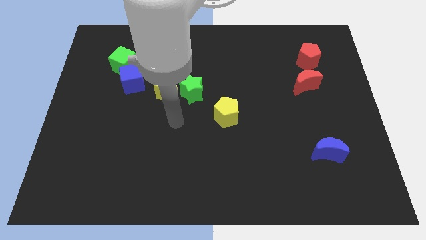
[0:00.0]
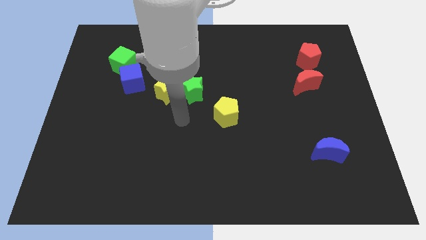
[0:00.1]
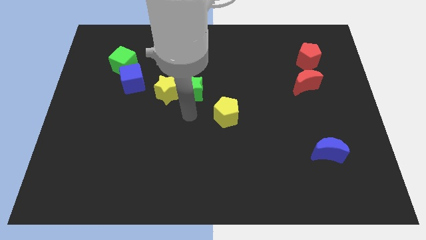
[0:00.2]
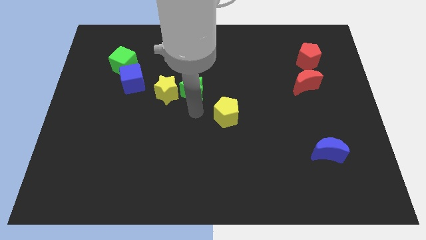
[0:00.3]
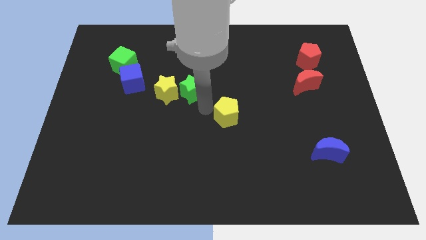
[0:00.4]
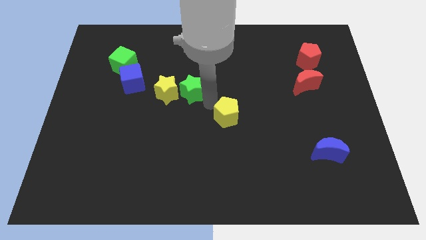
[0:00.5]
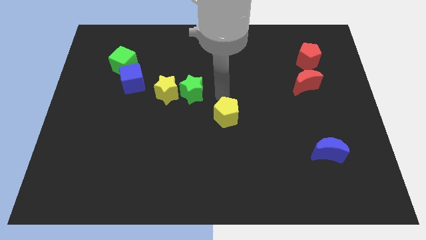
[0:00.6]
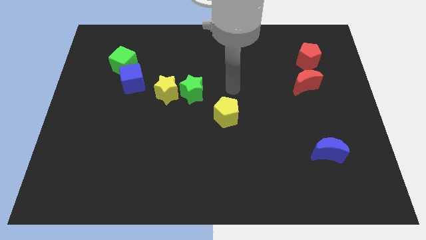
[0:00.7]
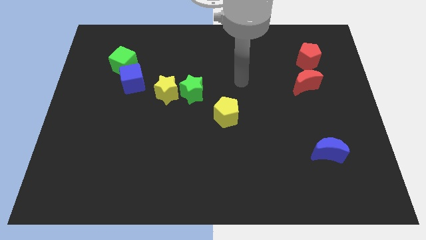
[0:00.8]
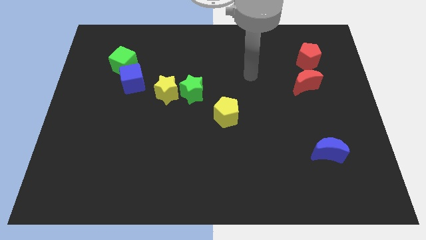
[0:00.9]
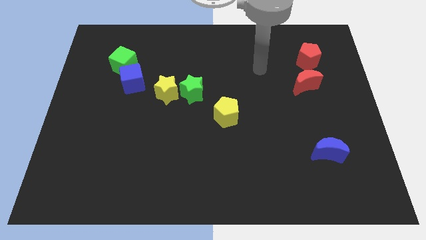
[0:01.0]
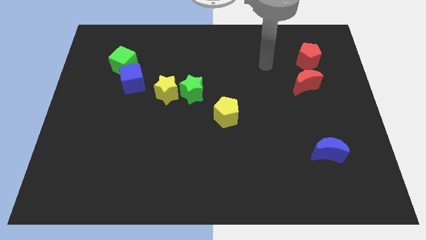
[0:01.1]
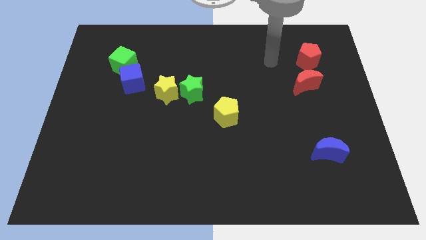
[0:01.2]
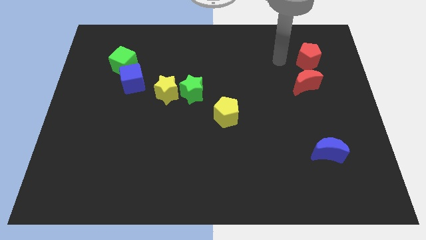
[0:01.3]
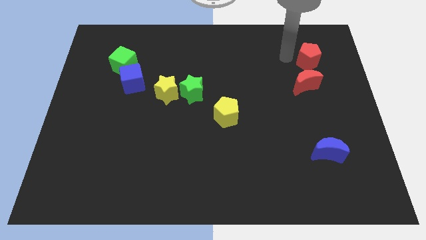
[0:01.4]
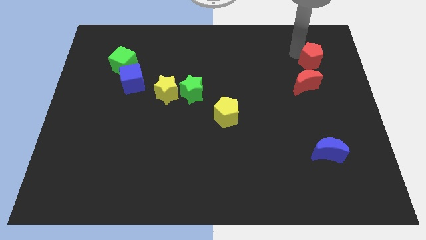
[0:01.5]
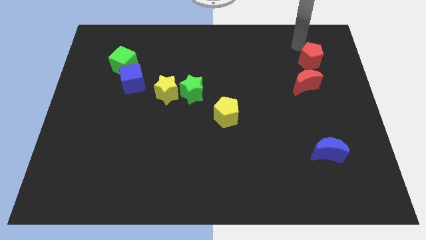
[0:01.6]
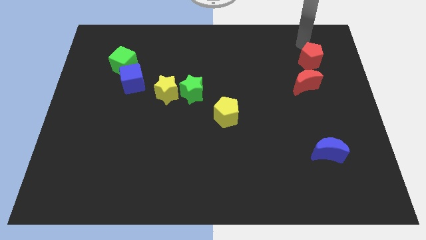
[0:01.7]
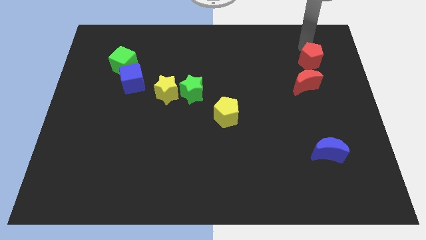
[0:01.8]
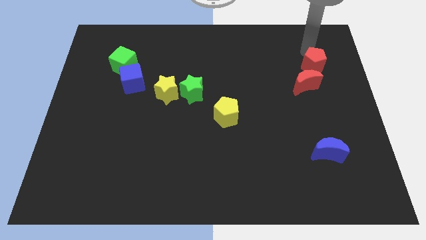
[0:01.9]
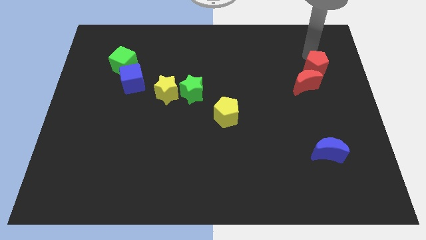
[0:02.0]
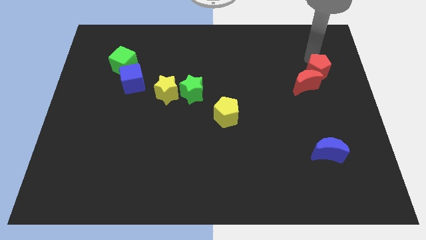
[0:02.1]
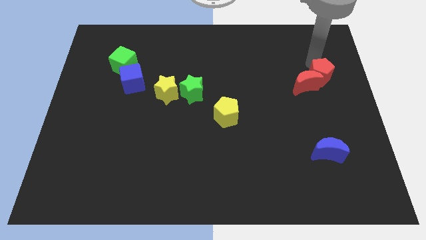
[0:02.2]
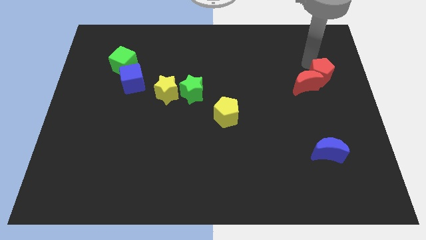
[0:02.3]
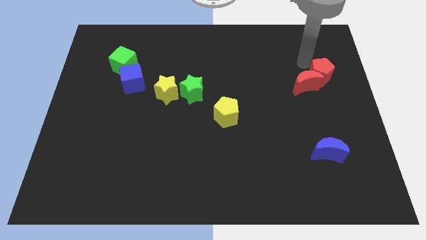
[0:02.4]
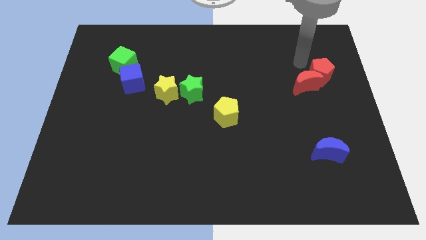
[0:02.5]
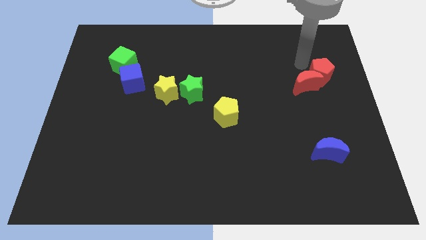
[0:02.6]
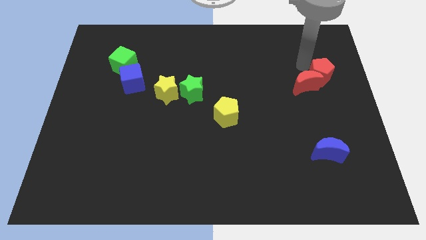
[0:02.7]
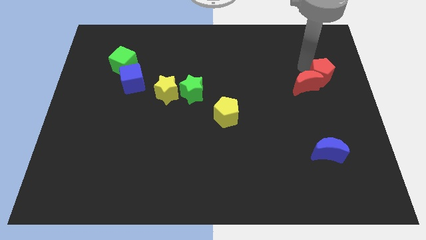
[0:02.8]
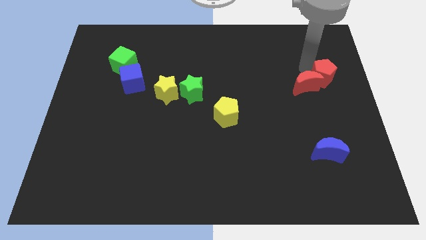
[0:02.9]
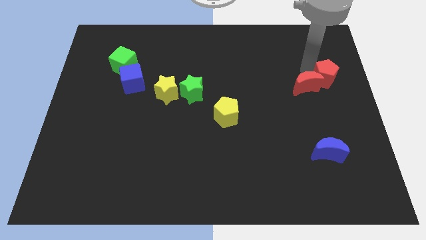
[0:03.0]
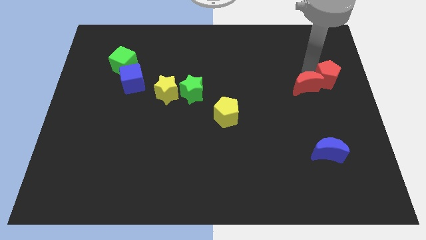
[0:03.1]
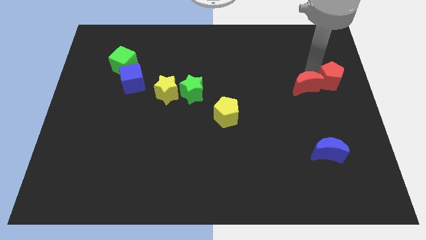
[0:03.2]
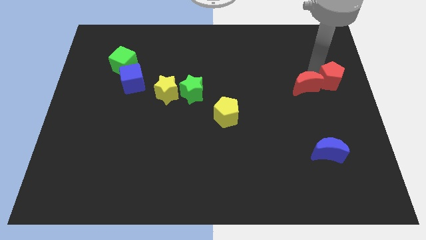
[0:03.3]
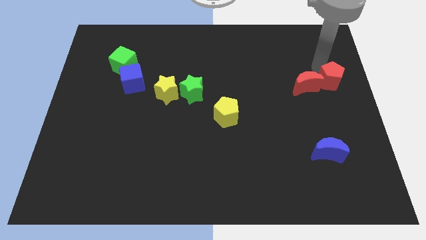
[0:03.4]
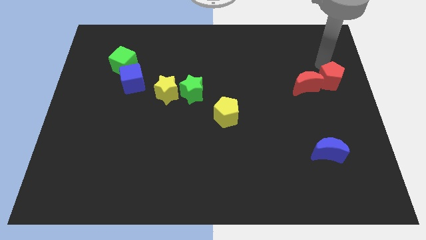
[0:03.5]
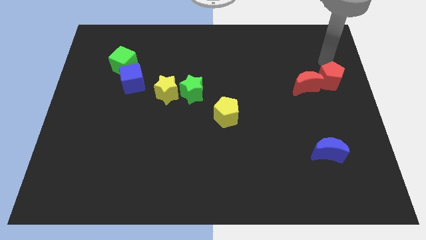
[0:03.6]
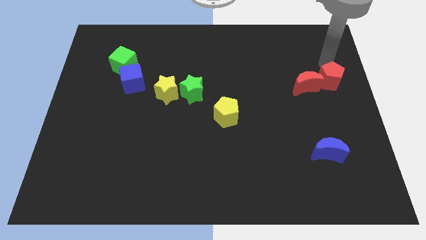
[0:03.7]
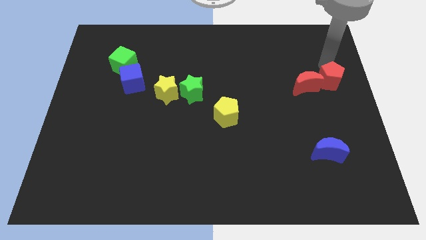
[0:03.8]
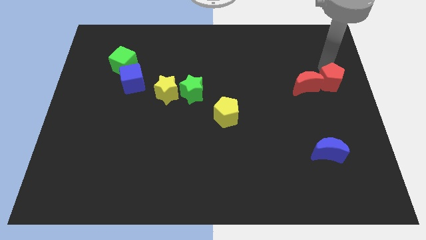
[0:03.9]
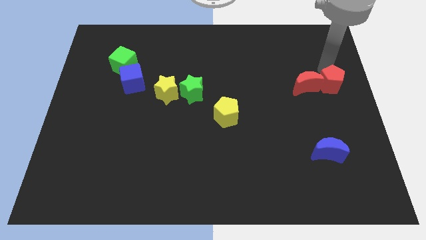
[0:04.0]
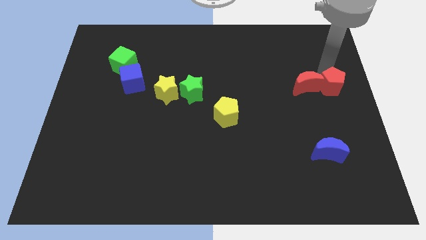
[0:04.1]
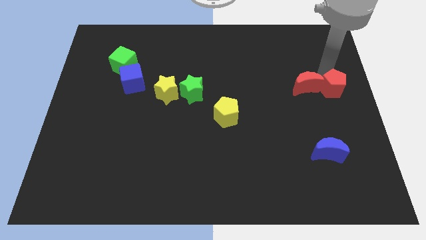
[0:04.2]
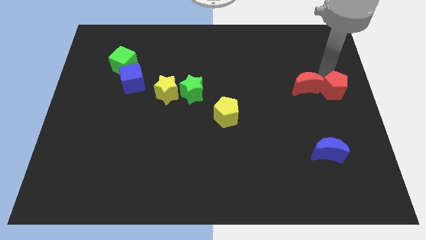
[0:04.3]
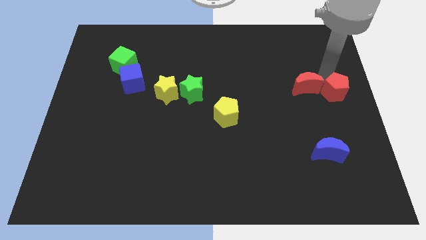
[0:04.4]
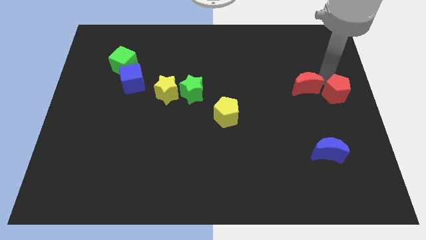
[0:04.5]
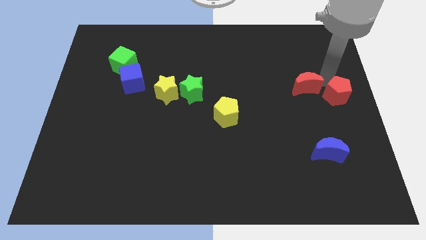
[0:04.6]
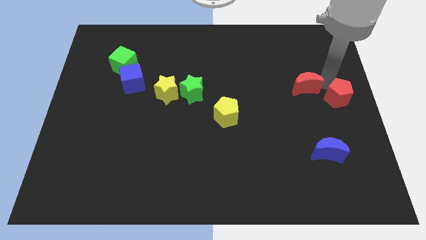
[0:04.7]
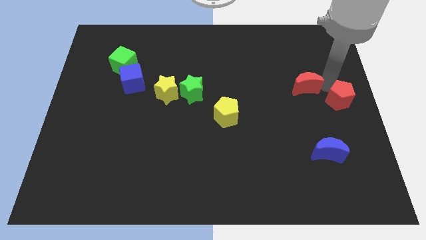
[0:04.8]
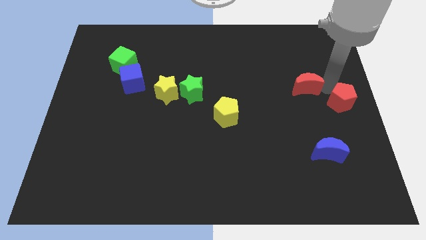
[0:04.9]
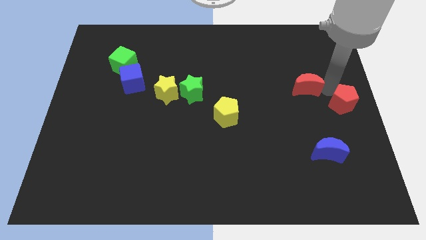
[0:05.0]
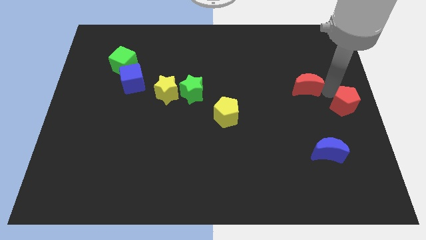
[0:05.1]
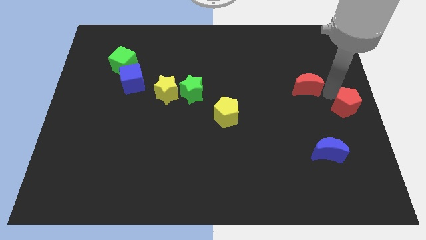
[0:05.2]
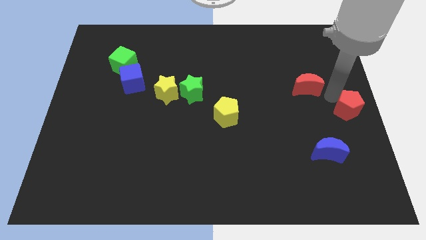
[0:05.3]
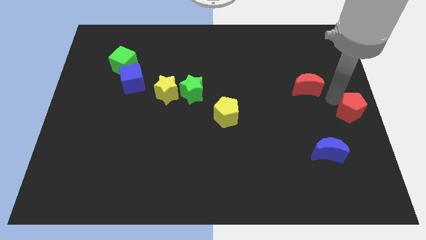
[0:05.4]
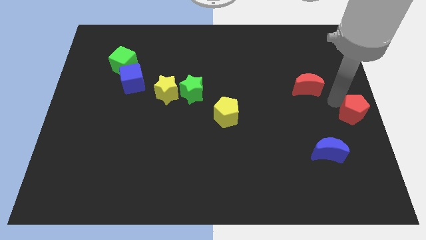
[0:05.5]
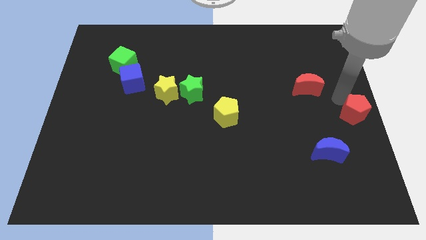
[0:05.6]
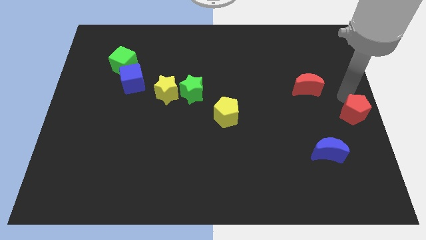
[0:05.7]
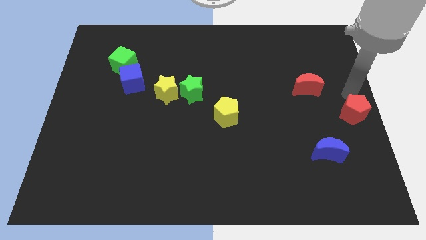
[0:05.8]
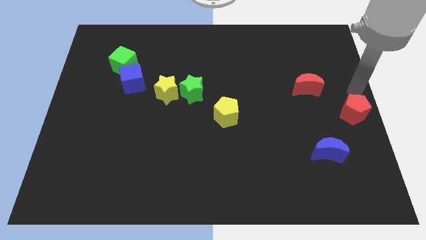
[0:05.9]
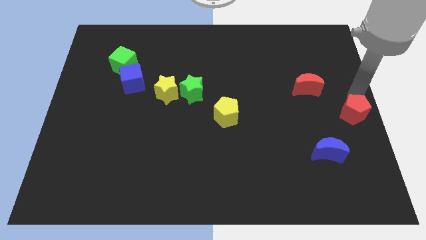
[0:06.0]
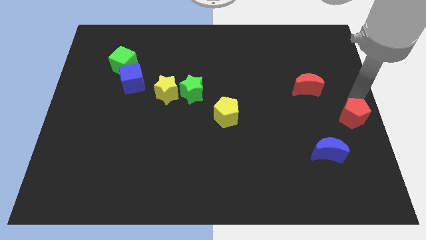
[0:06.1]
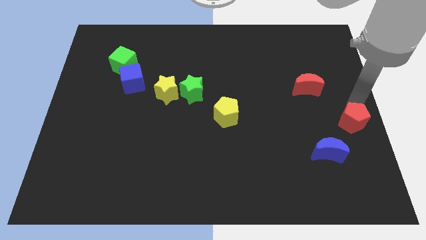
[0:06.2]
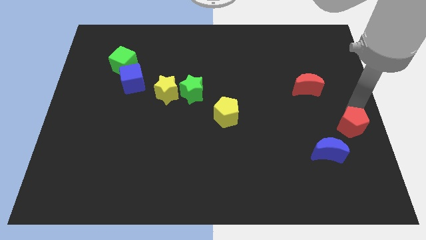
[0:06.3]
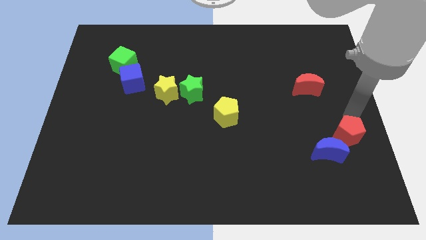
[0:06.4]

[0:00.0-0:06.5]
move the red pentagon downwards

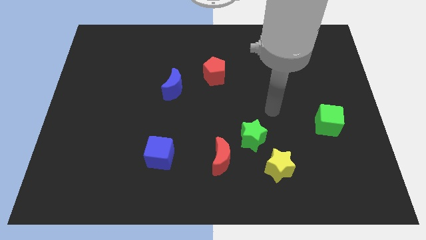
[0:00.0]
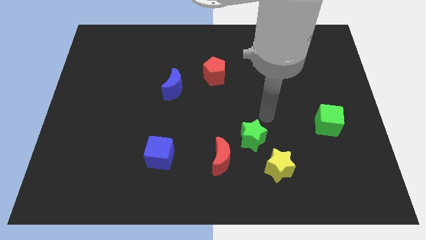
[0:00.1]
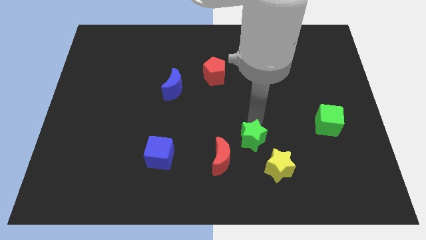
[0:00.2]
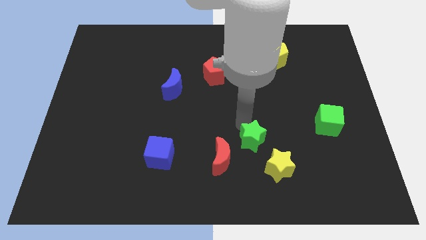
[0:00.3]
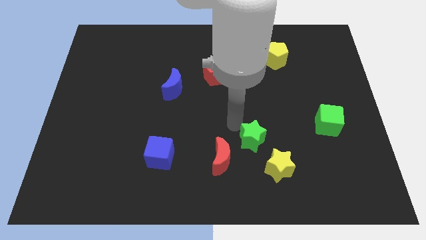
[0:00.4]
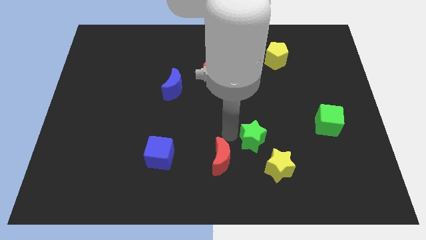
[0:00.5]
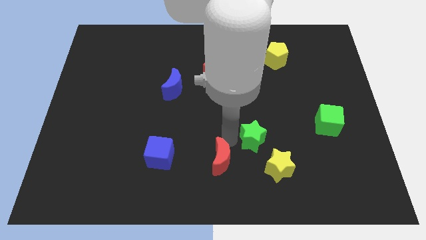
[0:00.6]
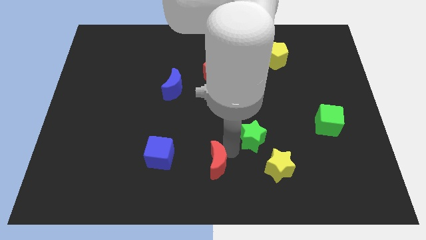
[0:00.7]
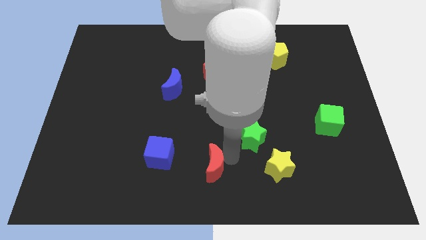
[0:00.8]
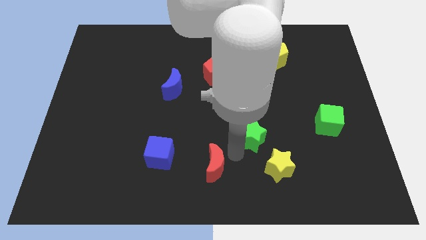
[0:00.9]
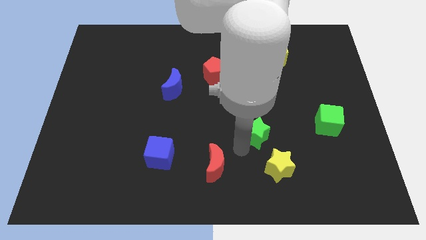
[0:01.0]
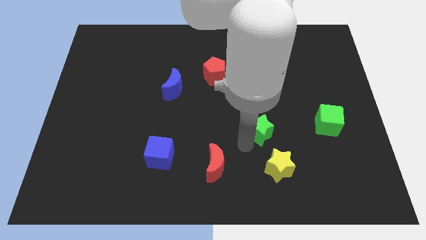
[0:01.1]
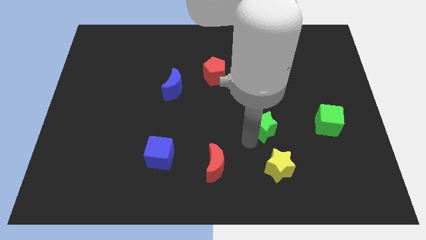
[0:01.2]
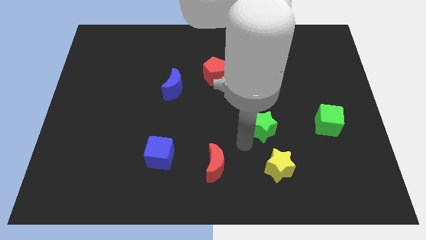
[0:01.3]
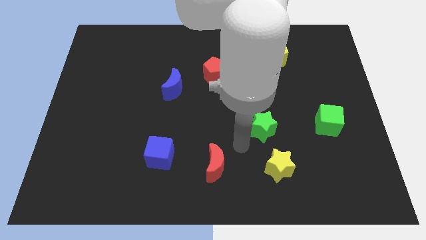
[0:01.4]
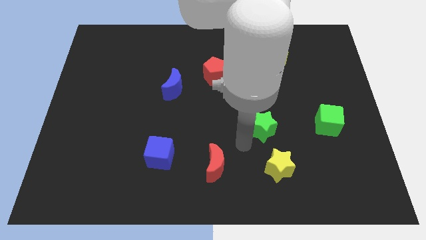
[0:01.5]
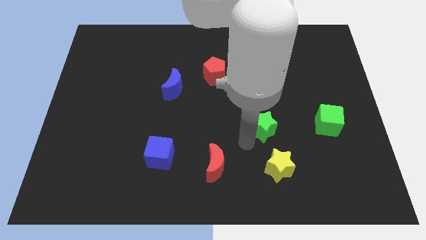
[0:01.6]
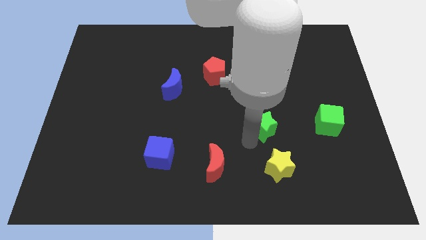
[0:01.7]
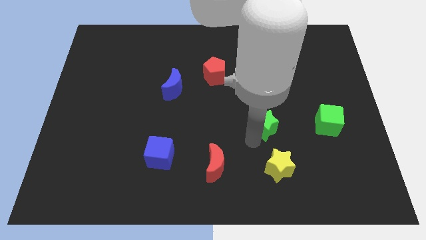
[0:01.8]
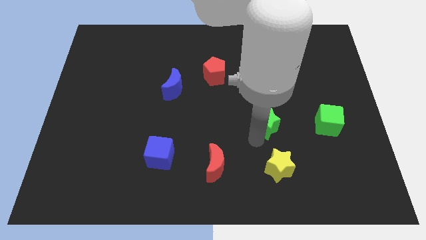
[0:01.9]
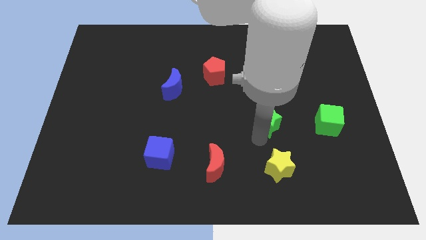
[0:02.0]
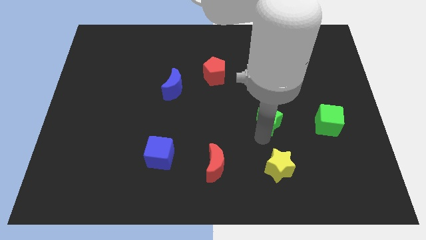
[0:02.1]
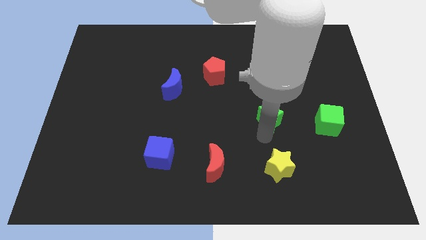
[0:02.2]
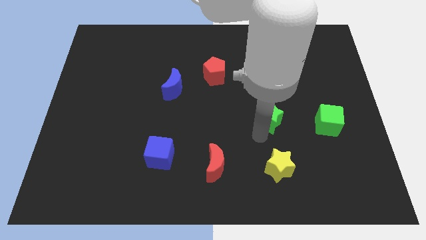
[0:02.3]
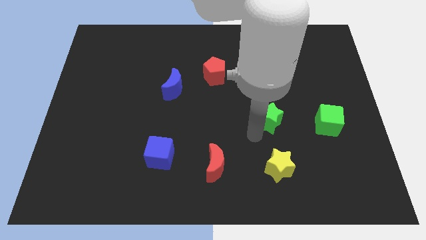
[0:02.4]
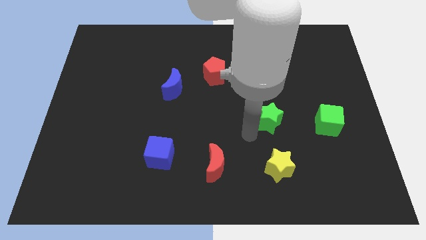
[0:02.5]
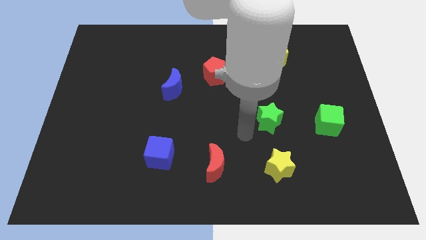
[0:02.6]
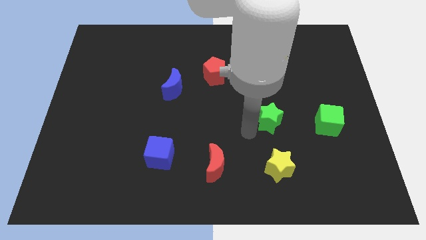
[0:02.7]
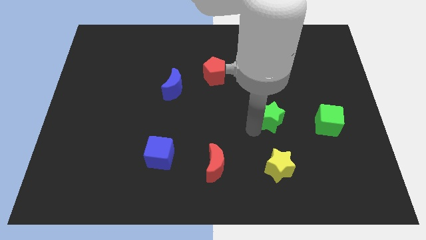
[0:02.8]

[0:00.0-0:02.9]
slightly push the green star up and right
